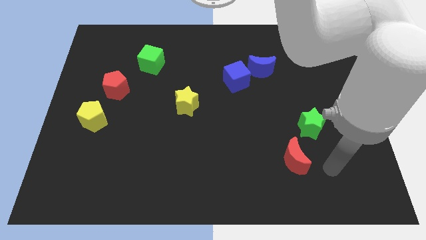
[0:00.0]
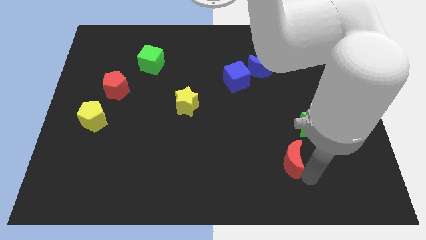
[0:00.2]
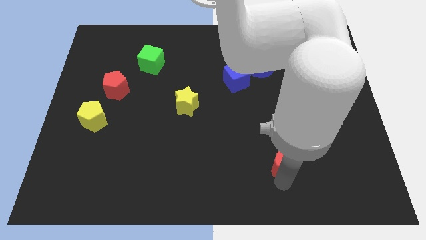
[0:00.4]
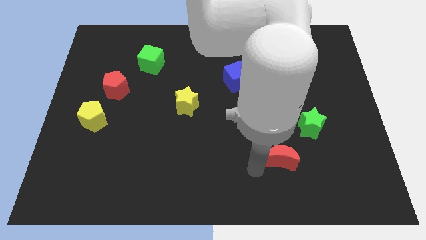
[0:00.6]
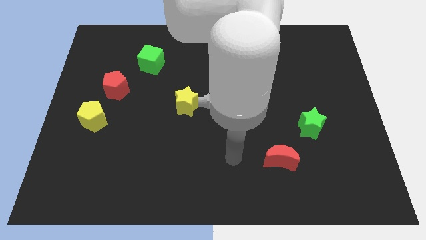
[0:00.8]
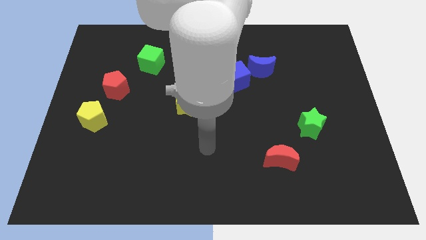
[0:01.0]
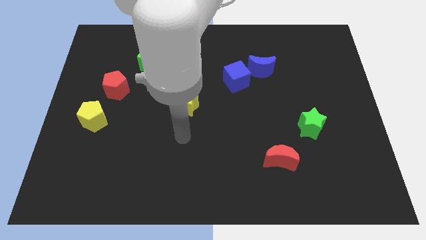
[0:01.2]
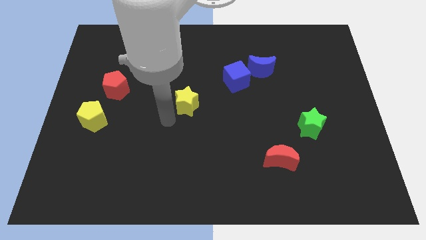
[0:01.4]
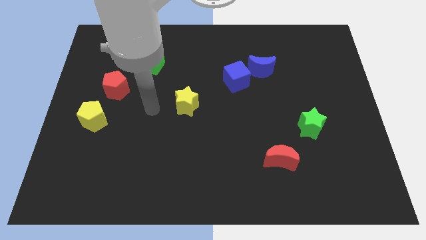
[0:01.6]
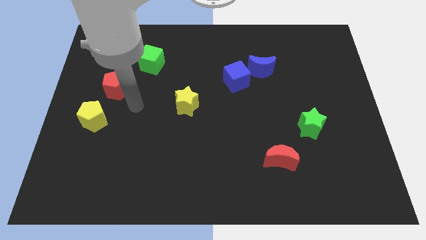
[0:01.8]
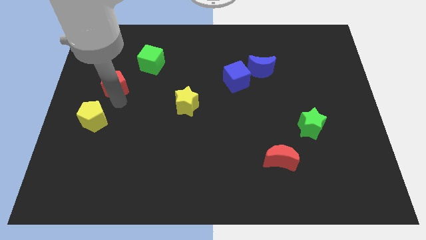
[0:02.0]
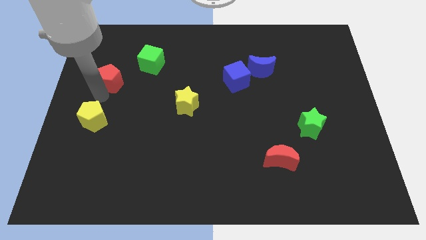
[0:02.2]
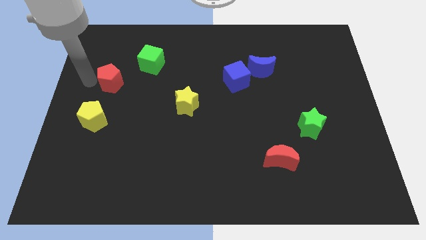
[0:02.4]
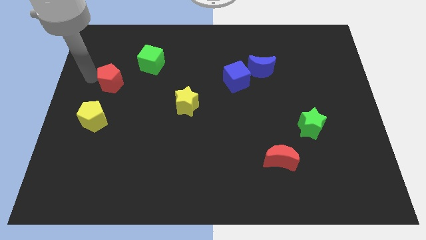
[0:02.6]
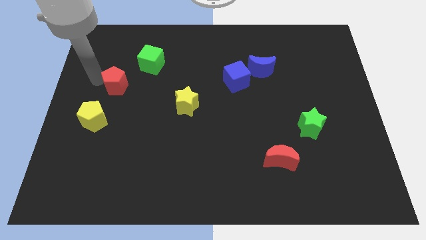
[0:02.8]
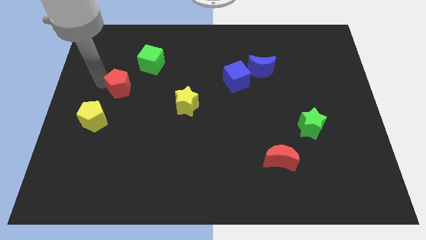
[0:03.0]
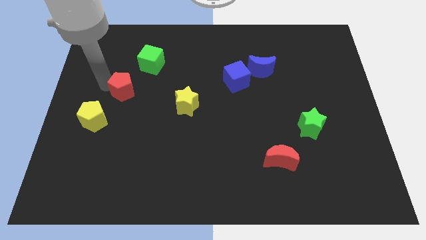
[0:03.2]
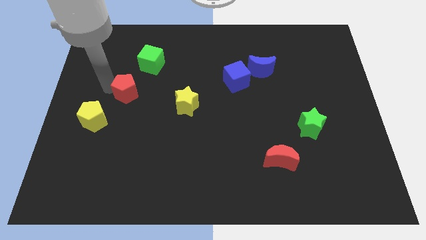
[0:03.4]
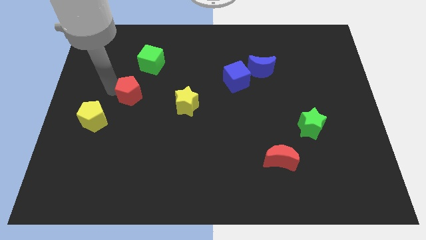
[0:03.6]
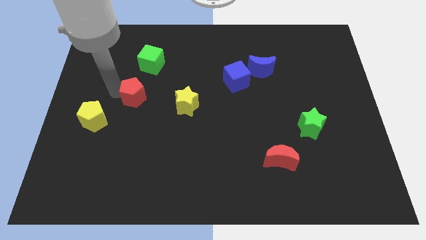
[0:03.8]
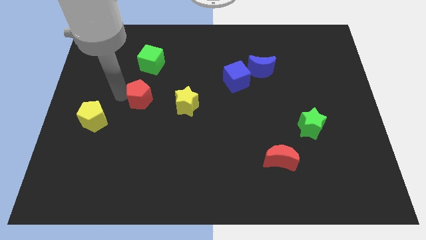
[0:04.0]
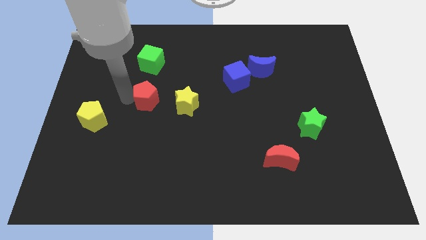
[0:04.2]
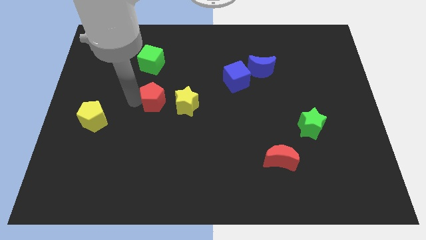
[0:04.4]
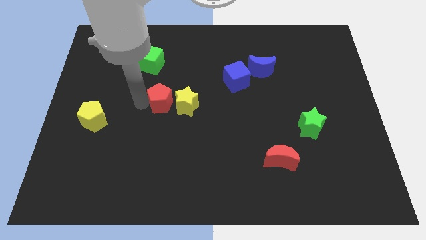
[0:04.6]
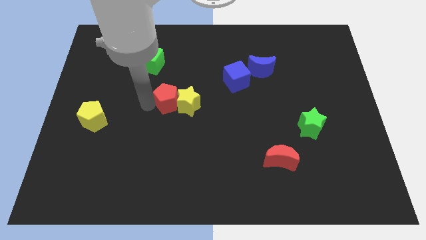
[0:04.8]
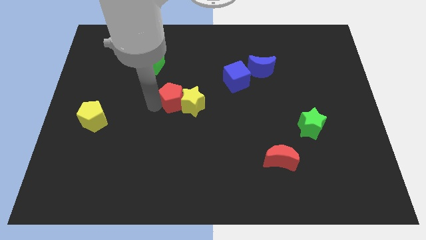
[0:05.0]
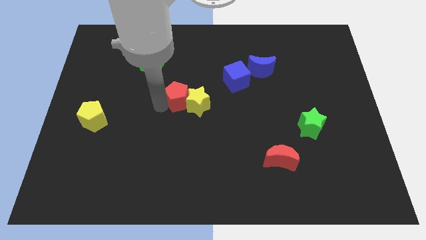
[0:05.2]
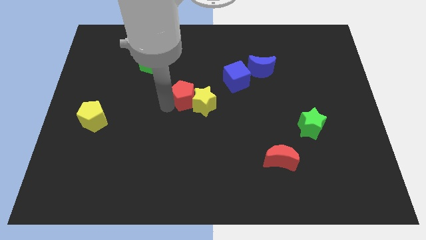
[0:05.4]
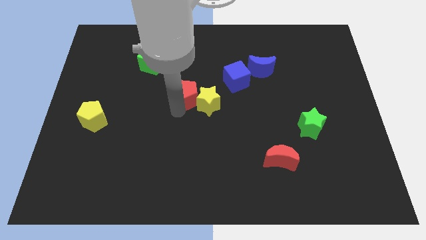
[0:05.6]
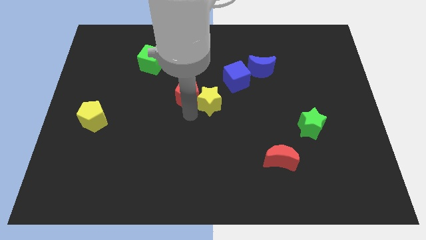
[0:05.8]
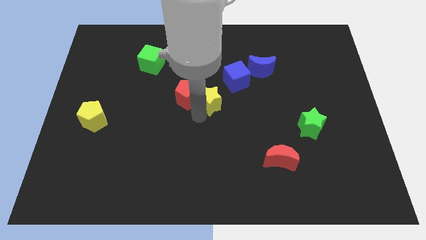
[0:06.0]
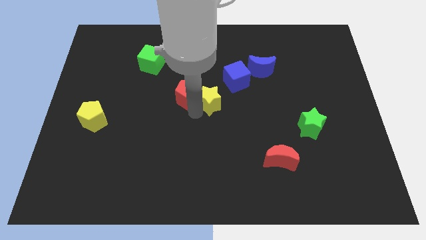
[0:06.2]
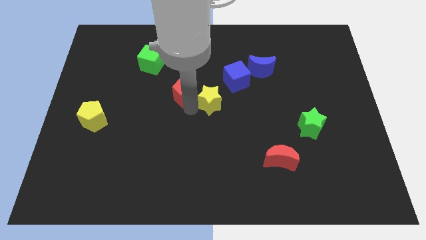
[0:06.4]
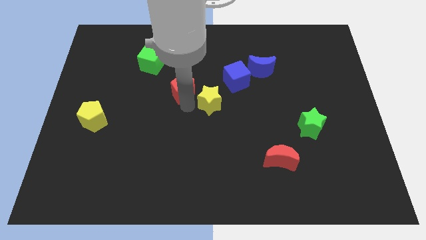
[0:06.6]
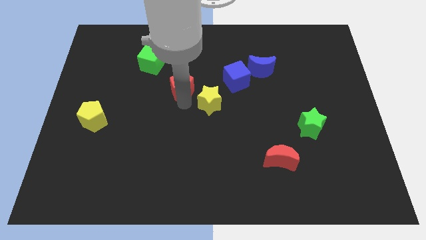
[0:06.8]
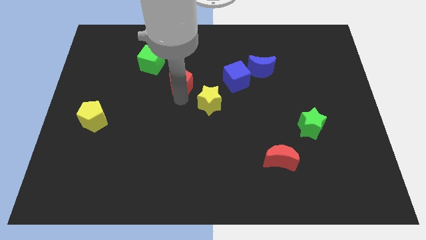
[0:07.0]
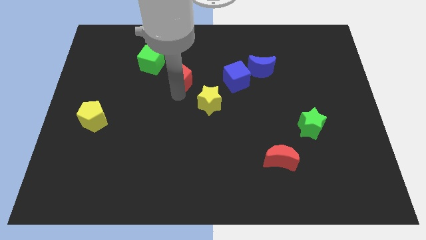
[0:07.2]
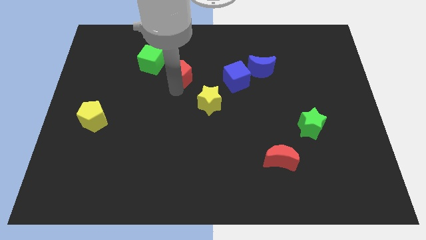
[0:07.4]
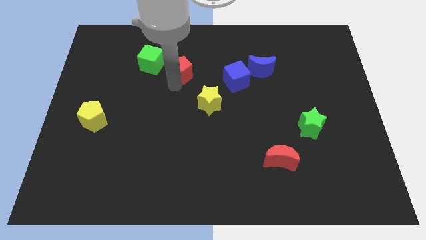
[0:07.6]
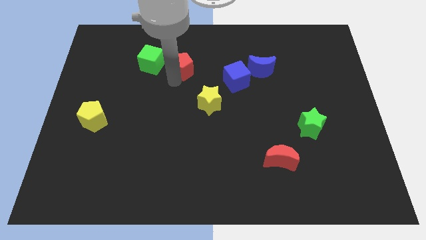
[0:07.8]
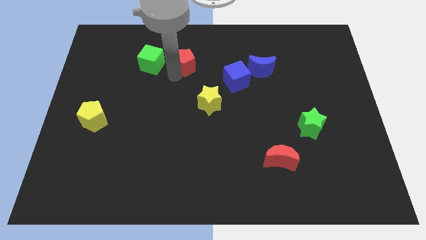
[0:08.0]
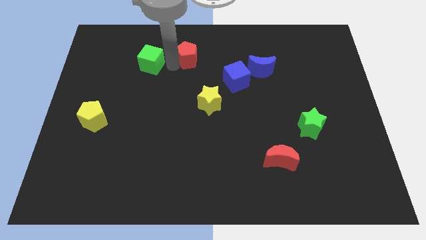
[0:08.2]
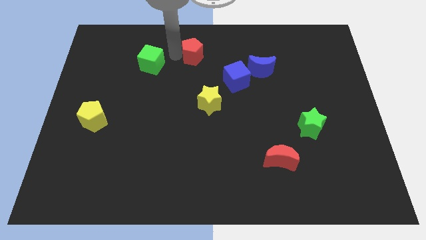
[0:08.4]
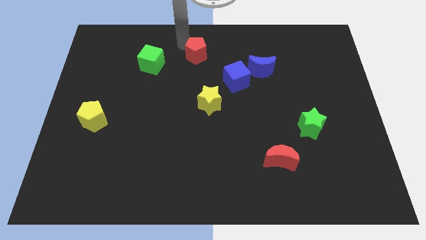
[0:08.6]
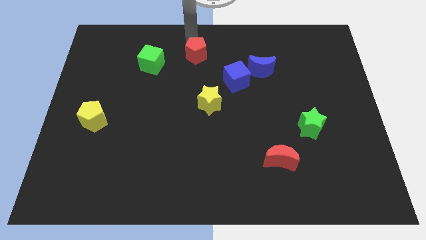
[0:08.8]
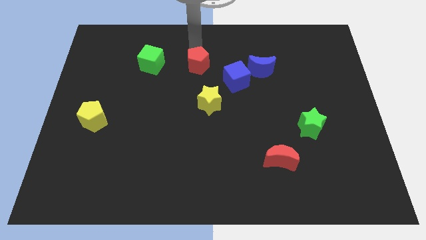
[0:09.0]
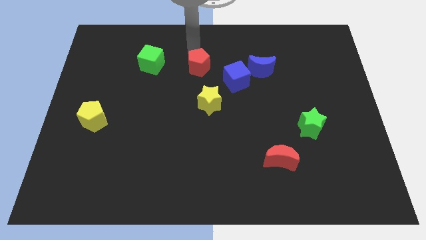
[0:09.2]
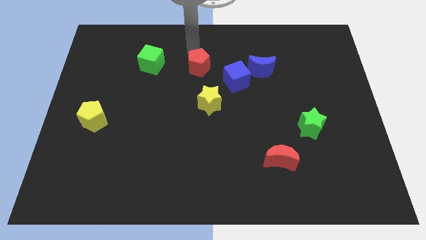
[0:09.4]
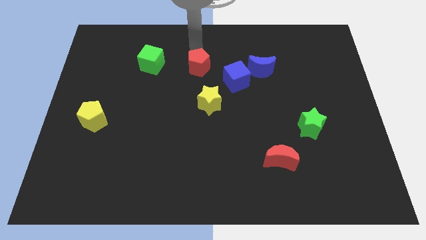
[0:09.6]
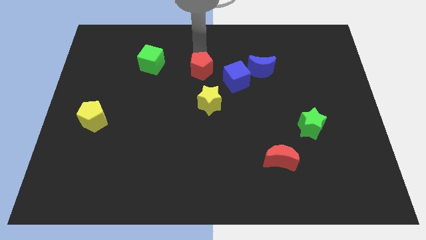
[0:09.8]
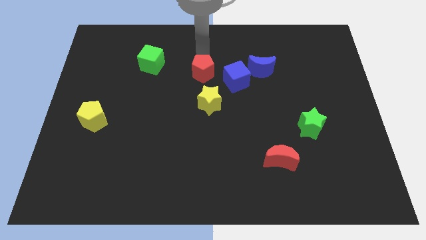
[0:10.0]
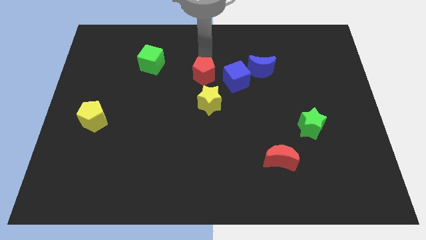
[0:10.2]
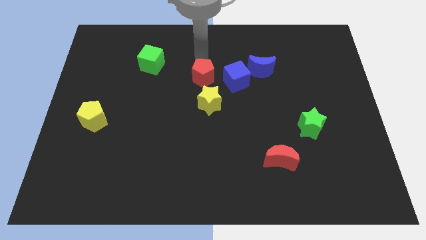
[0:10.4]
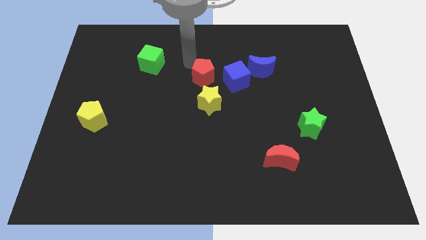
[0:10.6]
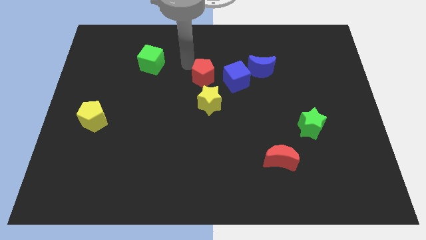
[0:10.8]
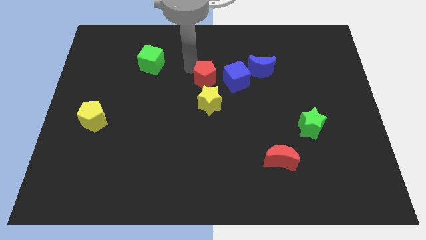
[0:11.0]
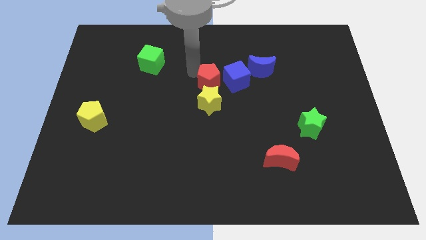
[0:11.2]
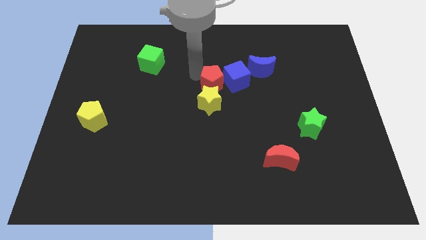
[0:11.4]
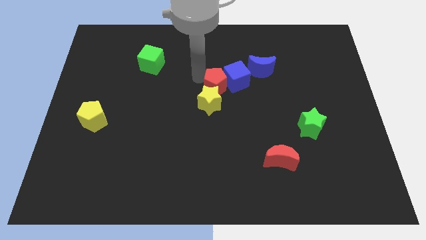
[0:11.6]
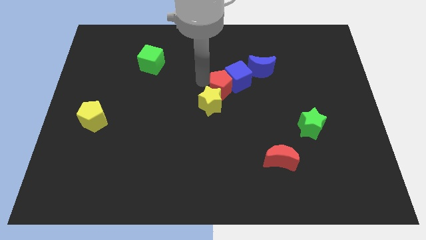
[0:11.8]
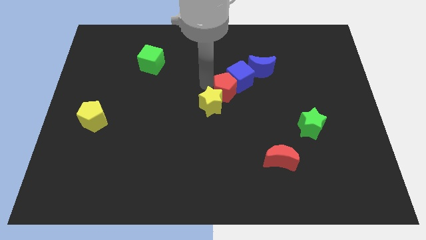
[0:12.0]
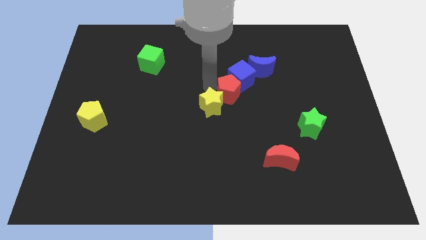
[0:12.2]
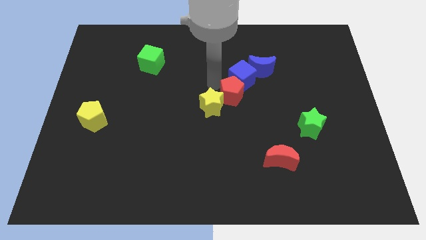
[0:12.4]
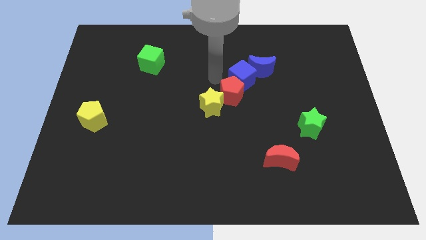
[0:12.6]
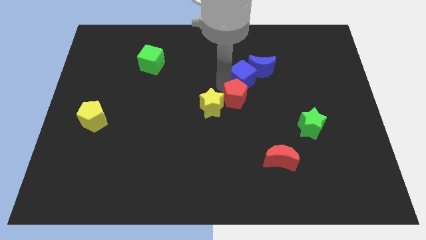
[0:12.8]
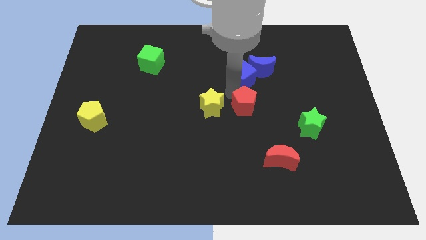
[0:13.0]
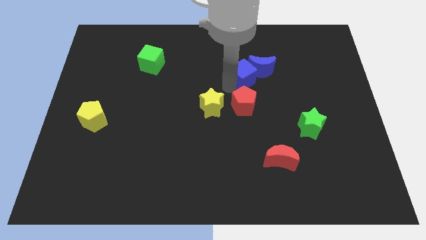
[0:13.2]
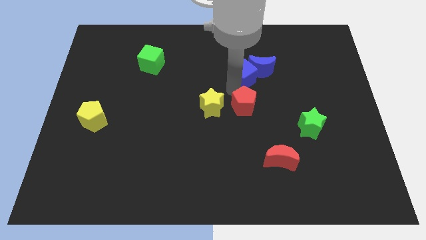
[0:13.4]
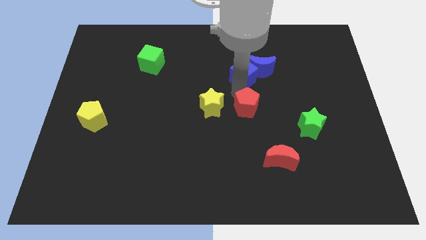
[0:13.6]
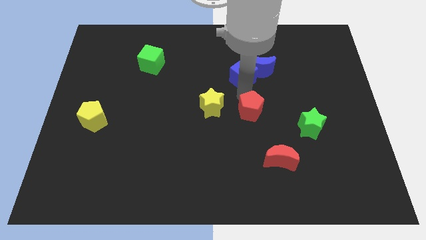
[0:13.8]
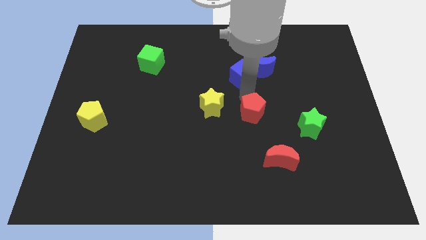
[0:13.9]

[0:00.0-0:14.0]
slide the red pentagon to the left of the green star

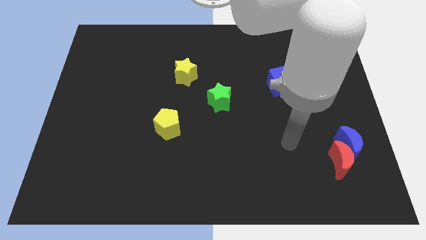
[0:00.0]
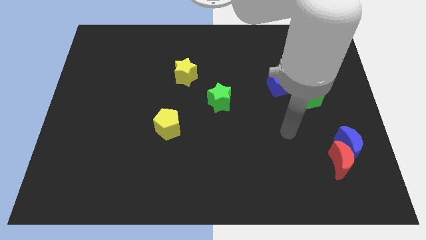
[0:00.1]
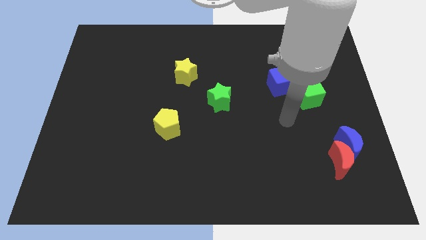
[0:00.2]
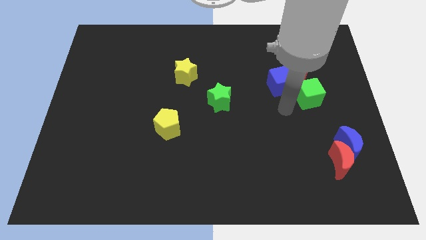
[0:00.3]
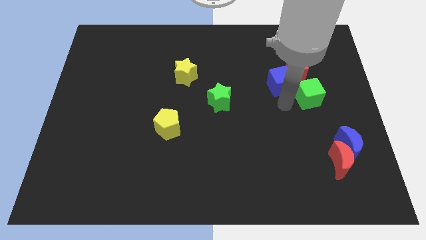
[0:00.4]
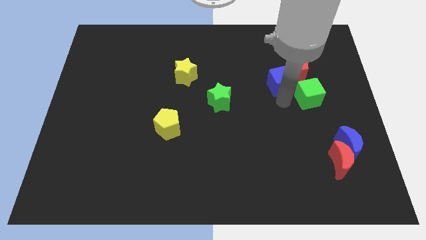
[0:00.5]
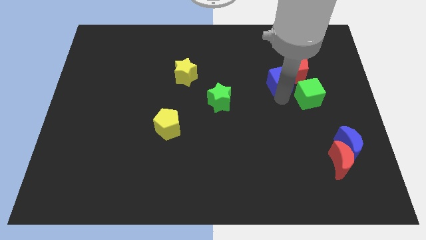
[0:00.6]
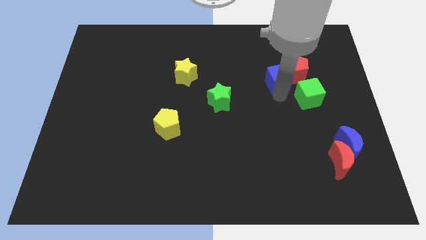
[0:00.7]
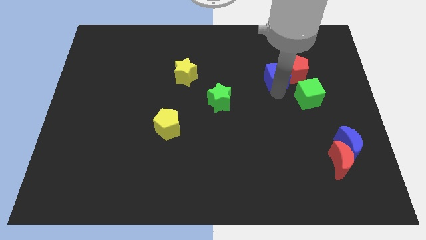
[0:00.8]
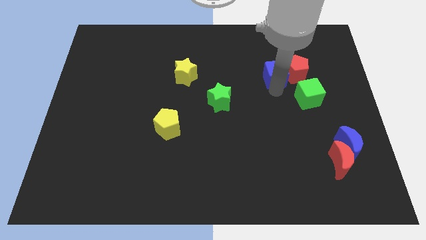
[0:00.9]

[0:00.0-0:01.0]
put the blue cube diagonally up and to the left of the red pentagon
